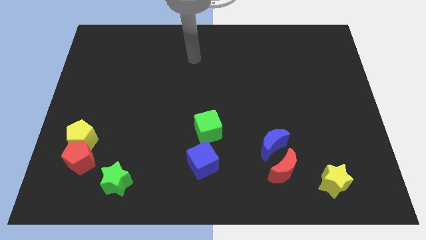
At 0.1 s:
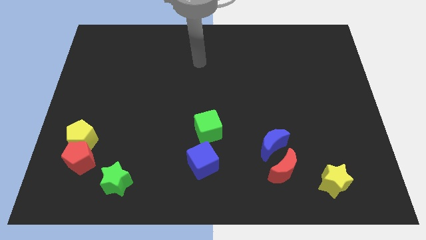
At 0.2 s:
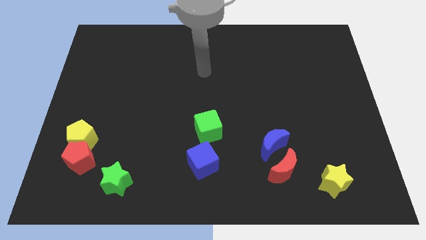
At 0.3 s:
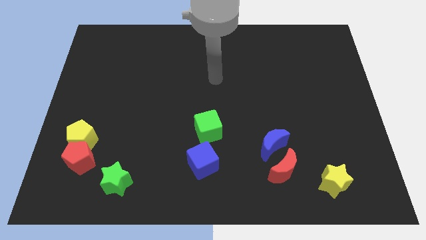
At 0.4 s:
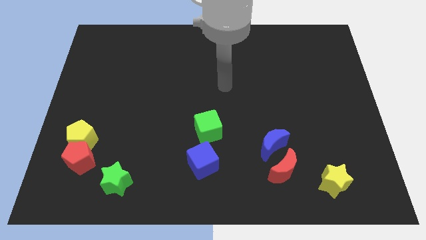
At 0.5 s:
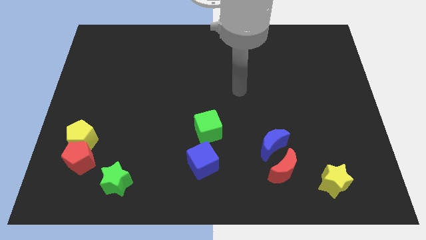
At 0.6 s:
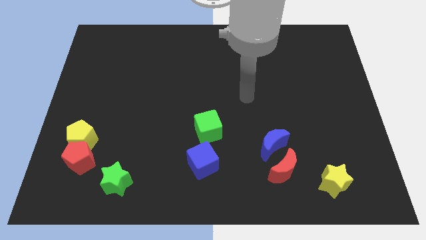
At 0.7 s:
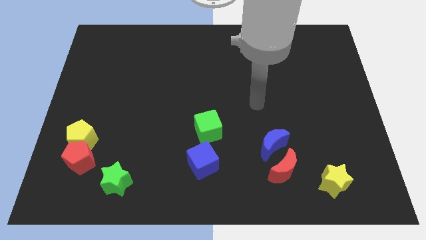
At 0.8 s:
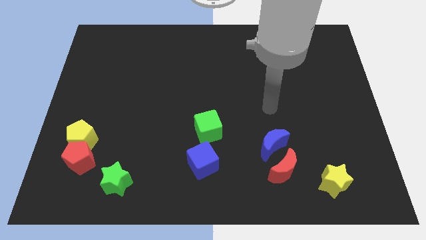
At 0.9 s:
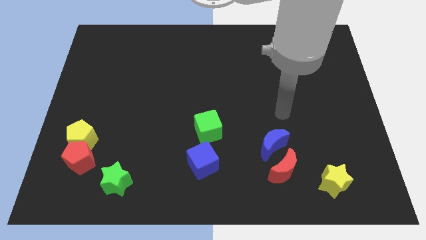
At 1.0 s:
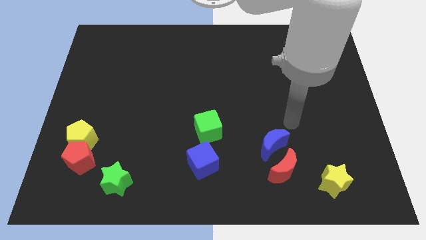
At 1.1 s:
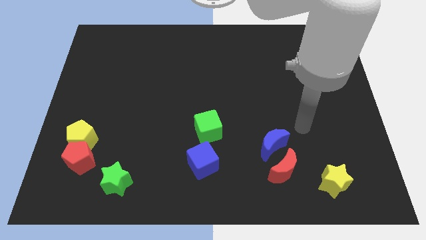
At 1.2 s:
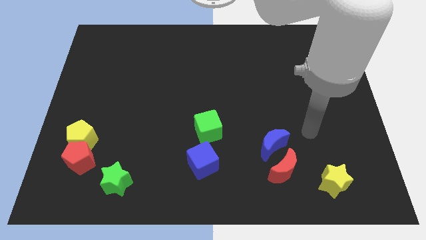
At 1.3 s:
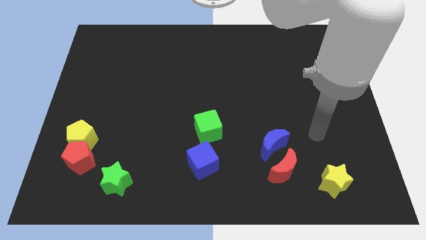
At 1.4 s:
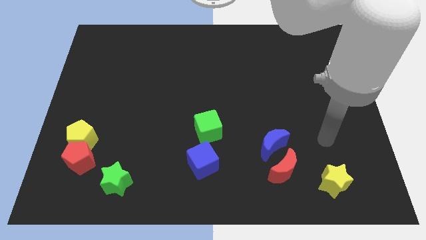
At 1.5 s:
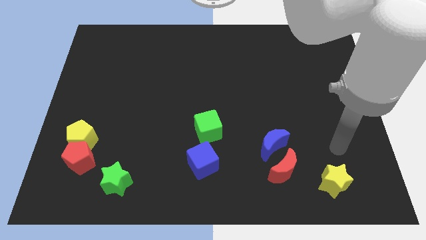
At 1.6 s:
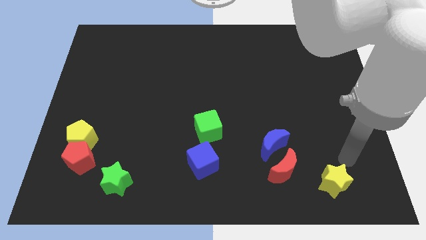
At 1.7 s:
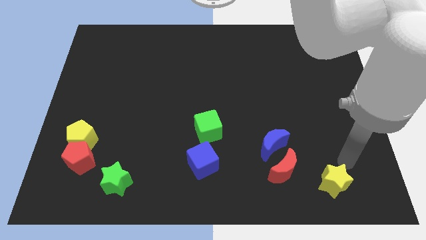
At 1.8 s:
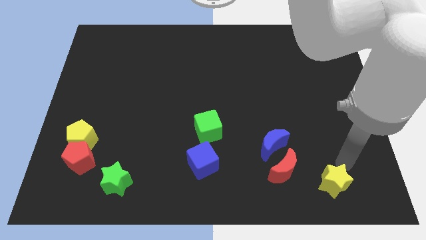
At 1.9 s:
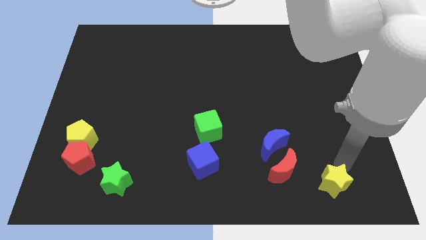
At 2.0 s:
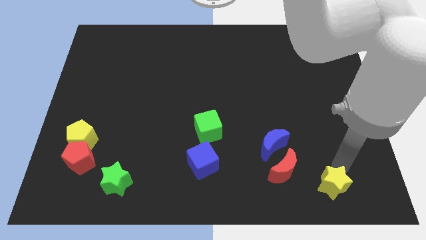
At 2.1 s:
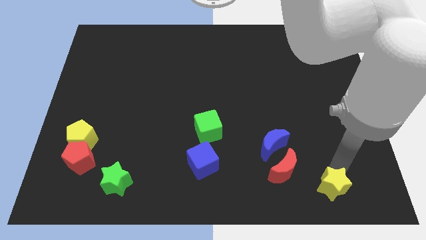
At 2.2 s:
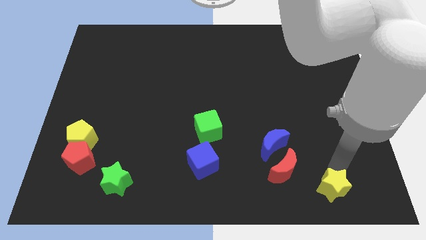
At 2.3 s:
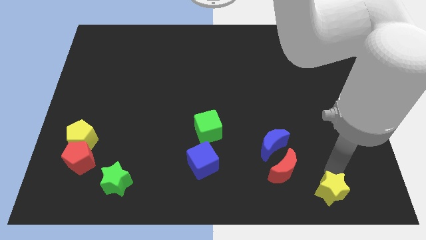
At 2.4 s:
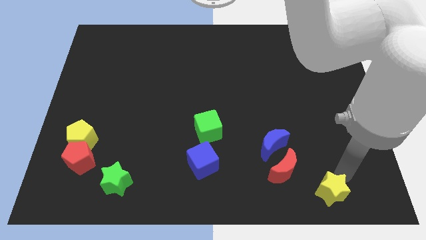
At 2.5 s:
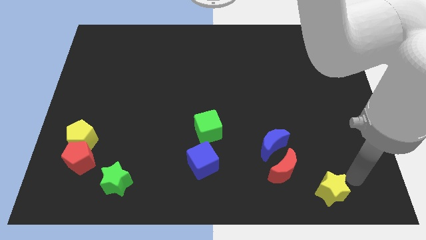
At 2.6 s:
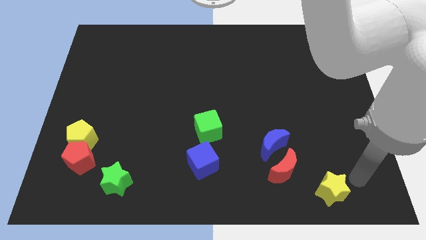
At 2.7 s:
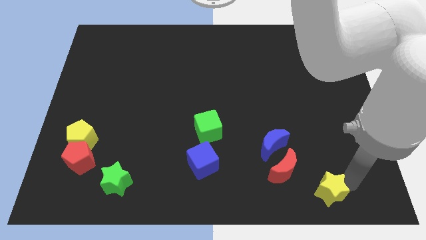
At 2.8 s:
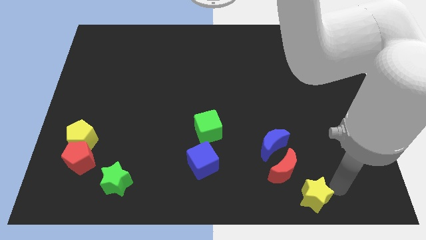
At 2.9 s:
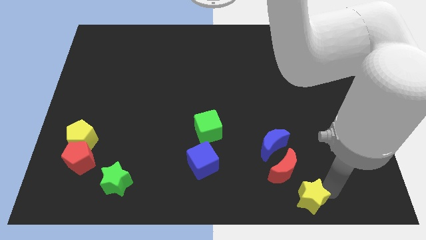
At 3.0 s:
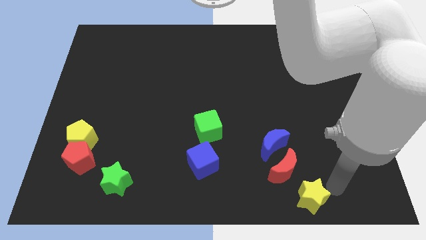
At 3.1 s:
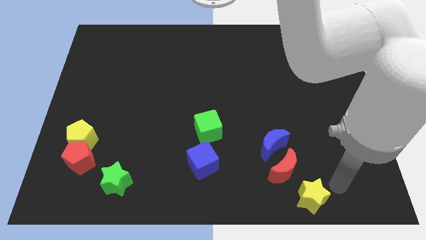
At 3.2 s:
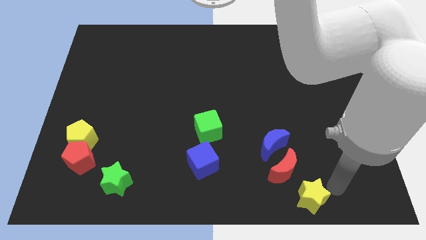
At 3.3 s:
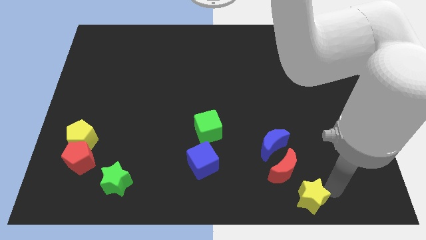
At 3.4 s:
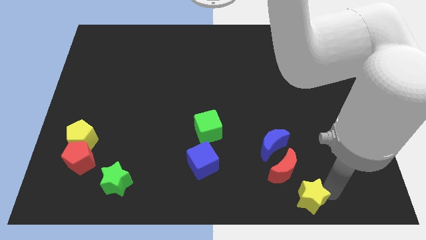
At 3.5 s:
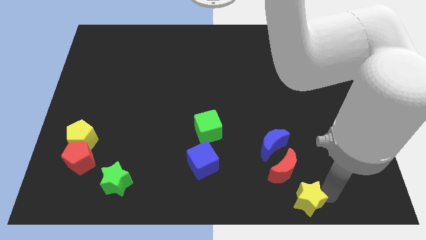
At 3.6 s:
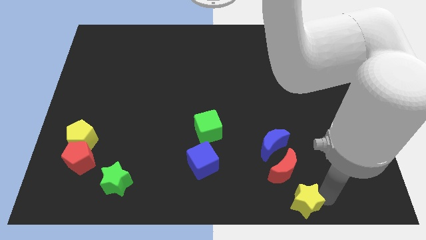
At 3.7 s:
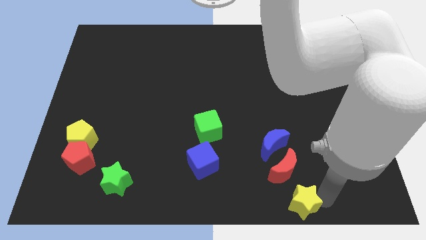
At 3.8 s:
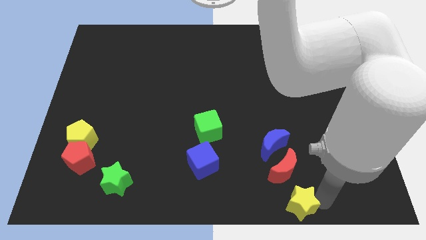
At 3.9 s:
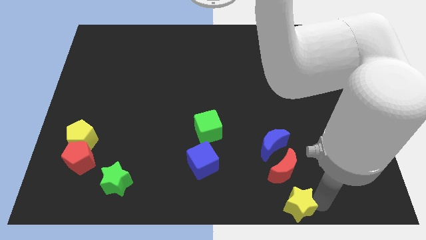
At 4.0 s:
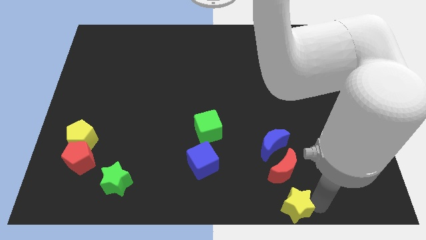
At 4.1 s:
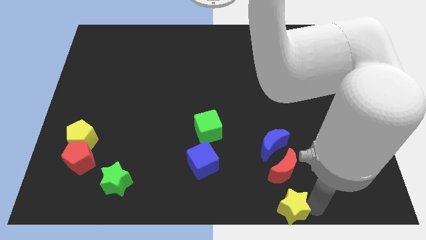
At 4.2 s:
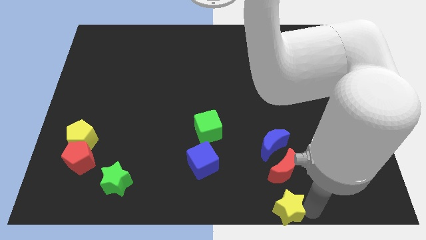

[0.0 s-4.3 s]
put the yellow star to the bottom side

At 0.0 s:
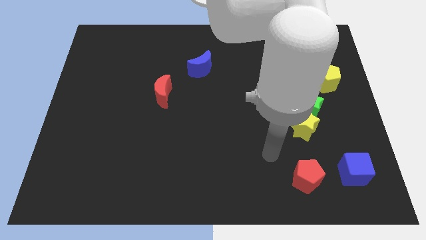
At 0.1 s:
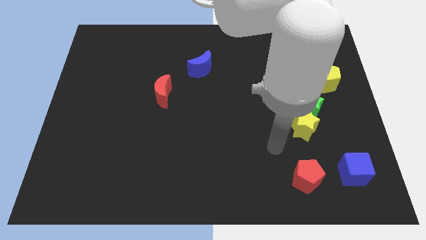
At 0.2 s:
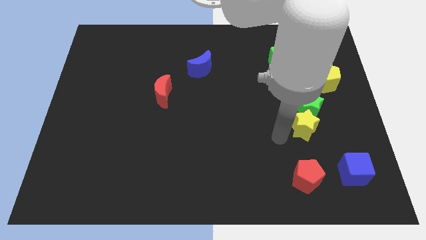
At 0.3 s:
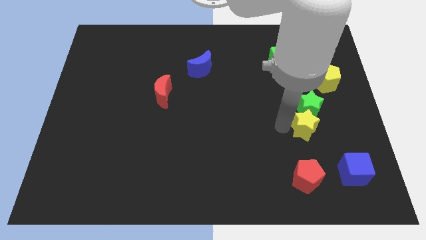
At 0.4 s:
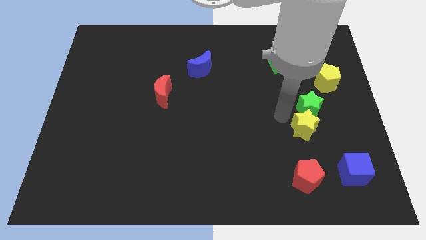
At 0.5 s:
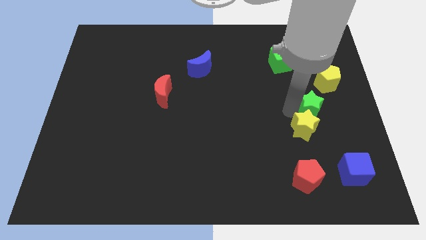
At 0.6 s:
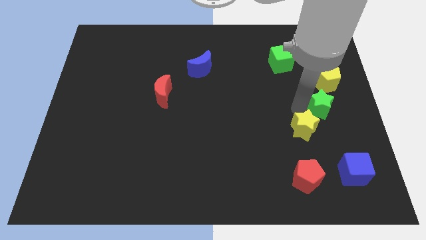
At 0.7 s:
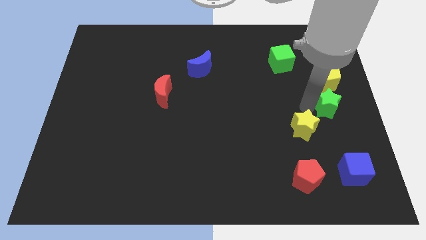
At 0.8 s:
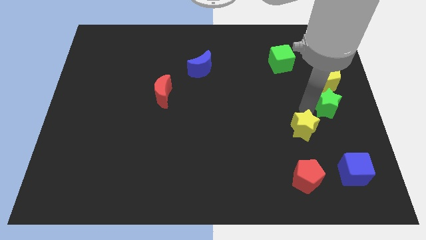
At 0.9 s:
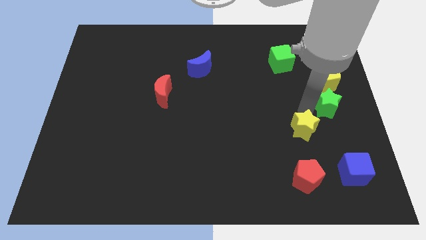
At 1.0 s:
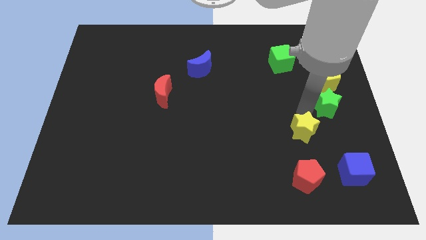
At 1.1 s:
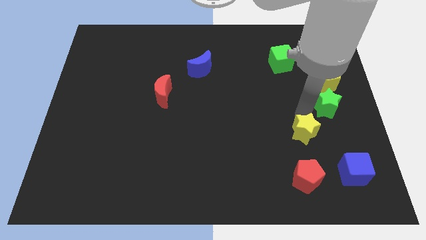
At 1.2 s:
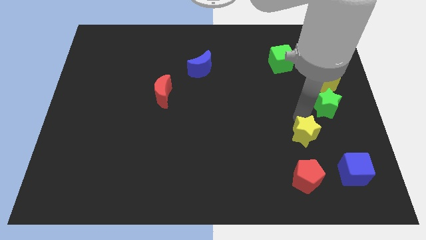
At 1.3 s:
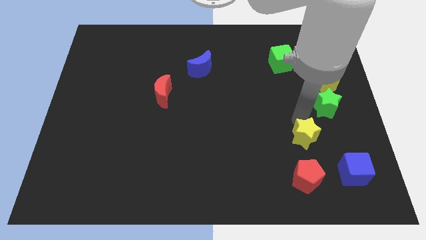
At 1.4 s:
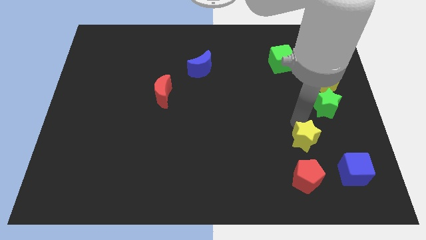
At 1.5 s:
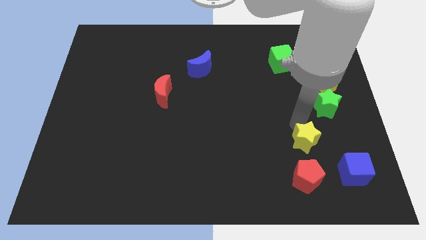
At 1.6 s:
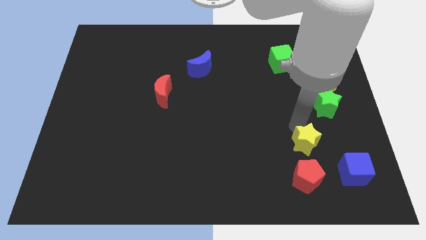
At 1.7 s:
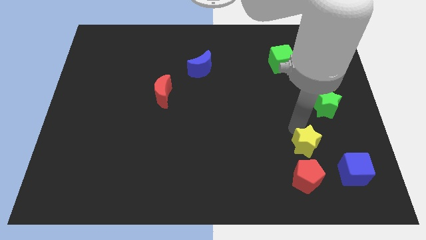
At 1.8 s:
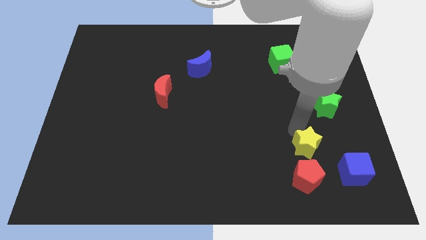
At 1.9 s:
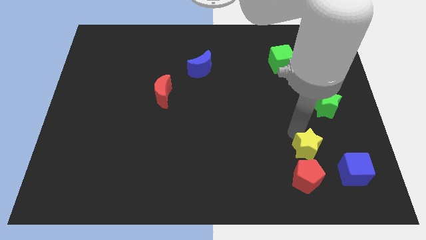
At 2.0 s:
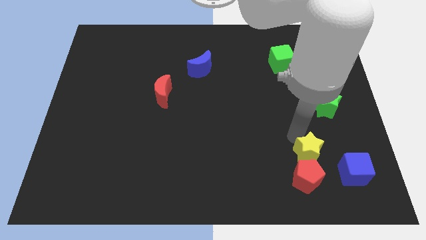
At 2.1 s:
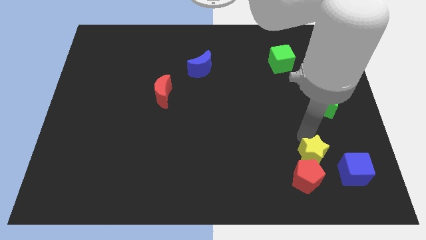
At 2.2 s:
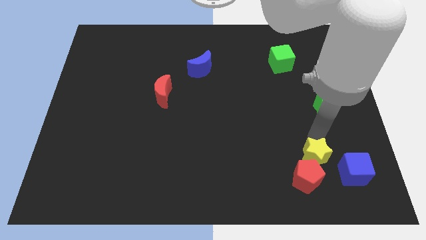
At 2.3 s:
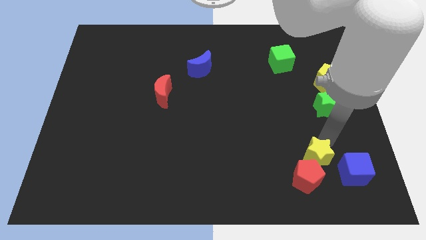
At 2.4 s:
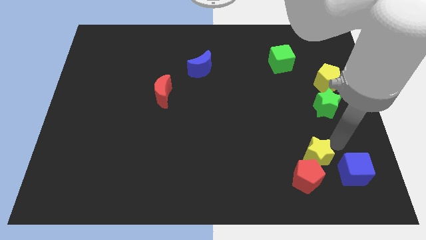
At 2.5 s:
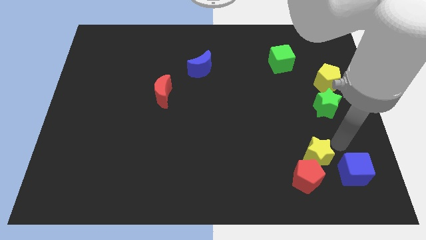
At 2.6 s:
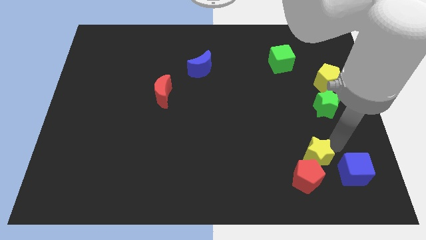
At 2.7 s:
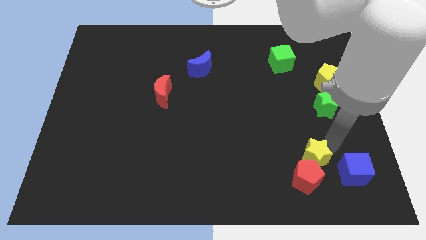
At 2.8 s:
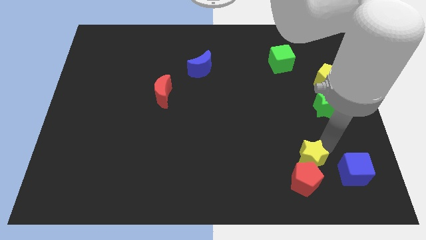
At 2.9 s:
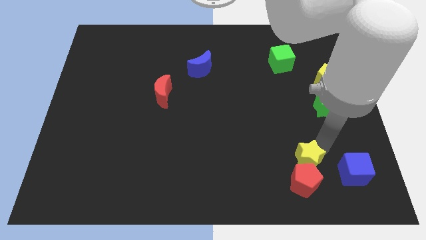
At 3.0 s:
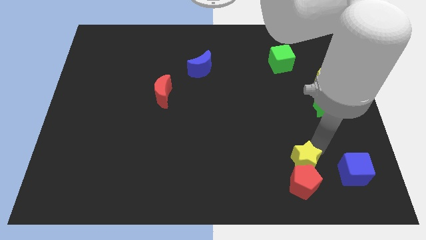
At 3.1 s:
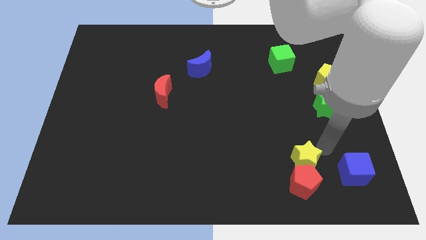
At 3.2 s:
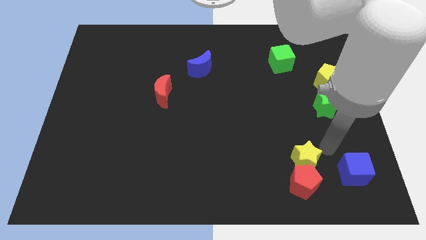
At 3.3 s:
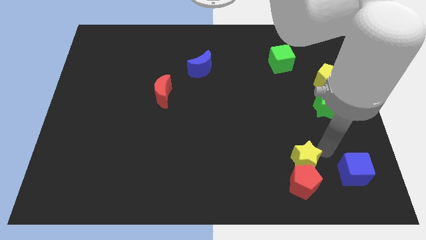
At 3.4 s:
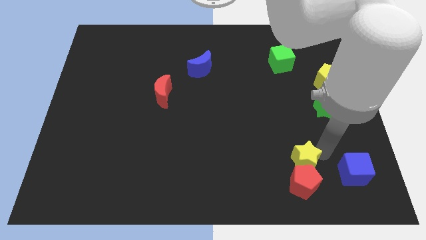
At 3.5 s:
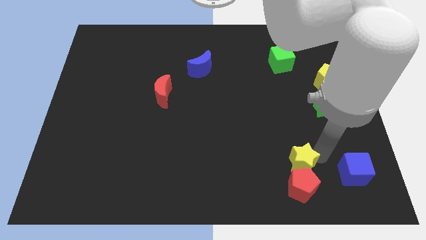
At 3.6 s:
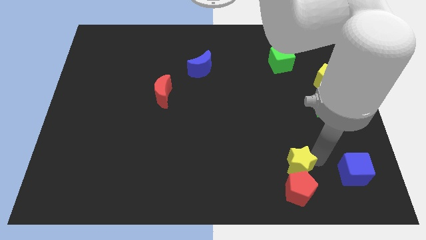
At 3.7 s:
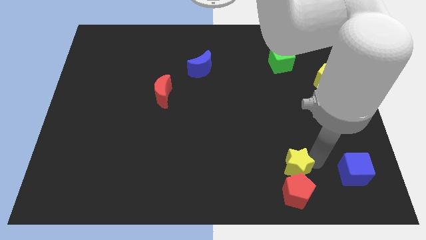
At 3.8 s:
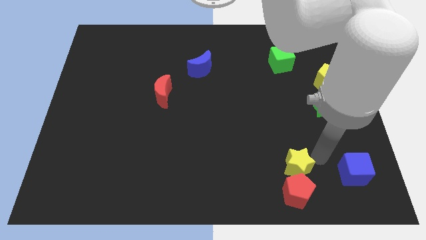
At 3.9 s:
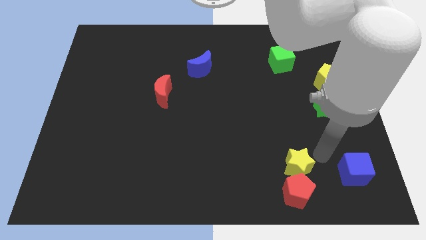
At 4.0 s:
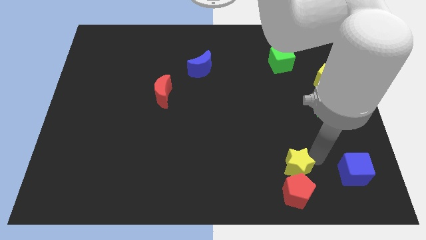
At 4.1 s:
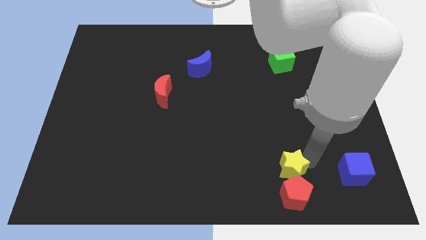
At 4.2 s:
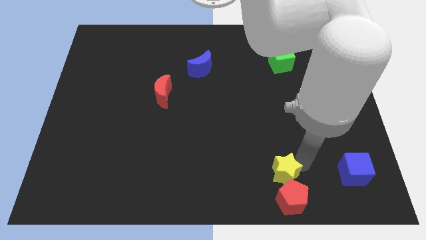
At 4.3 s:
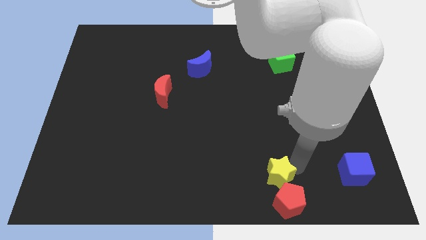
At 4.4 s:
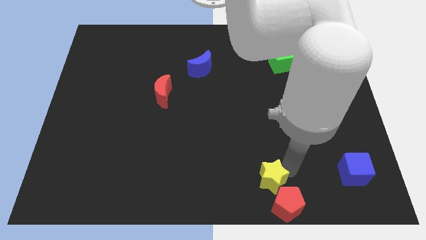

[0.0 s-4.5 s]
slide the yellow star to the bottom
